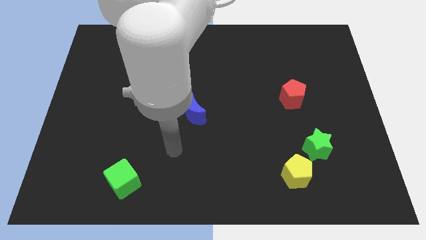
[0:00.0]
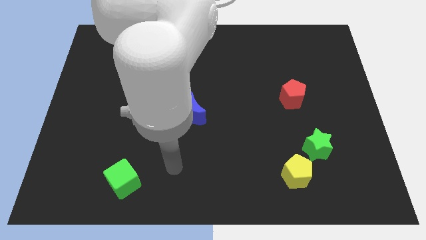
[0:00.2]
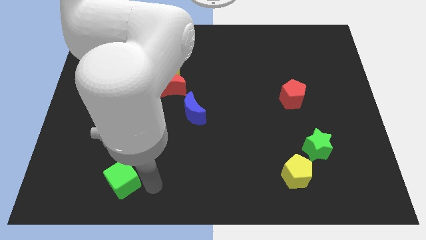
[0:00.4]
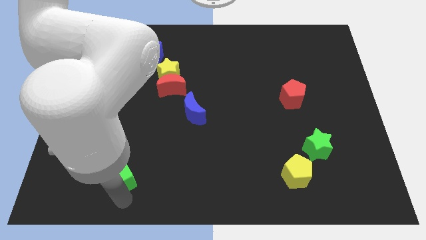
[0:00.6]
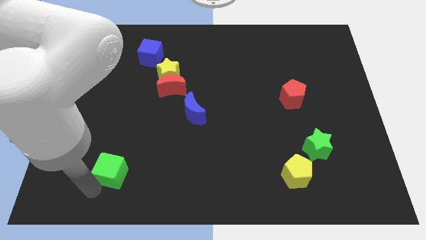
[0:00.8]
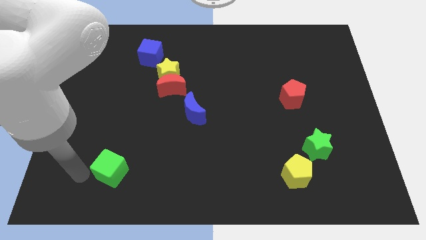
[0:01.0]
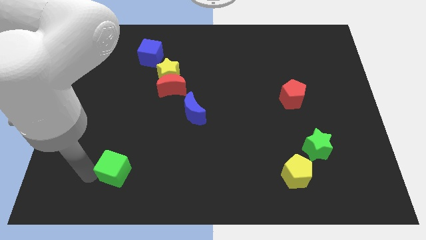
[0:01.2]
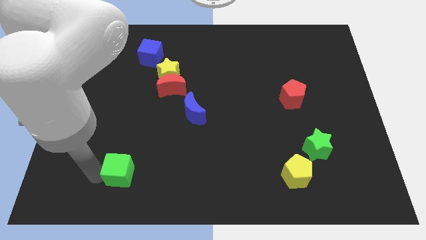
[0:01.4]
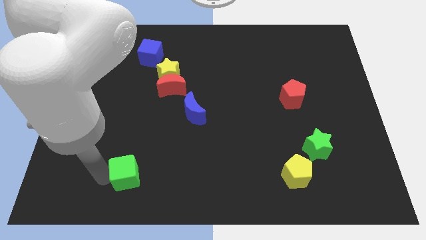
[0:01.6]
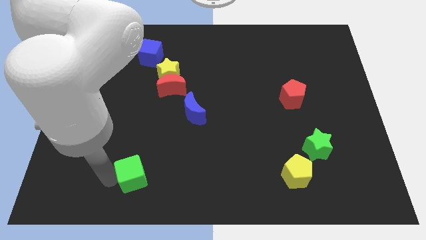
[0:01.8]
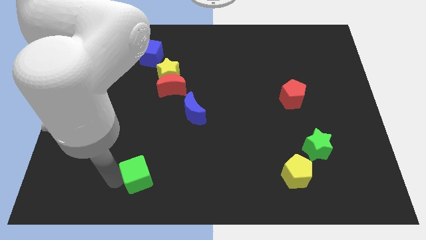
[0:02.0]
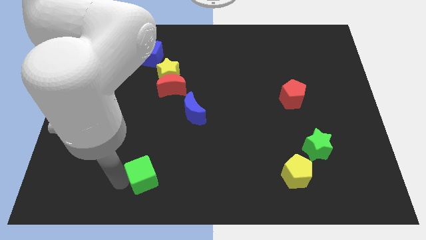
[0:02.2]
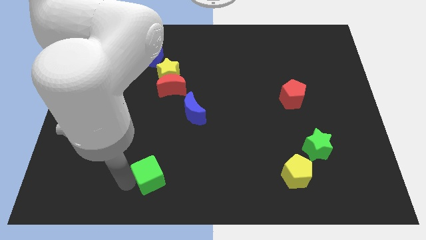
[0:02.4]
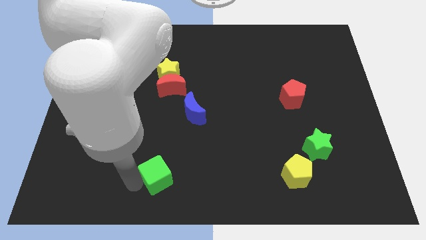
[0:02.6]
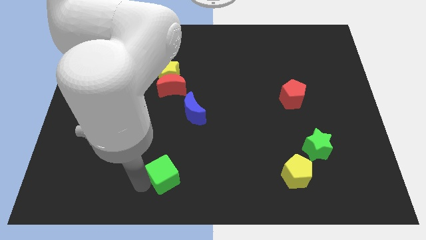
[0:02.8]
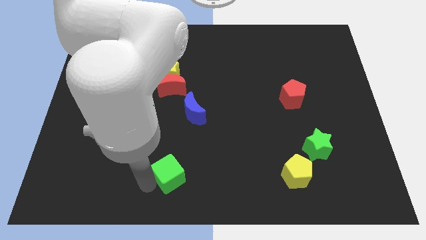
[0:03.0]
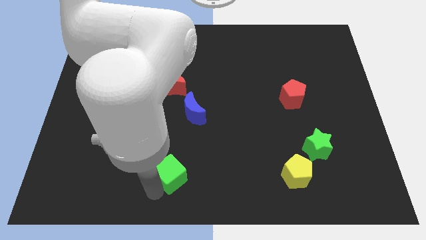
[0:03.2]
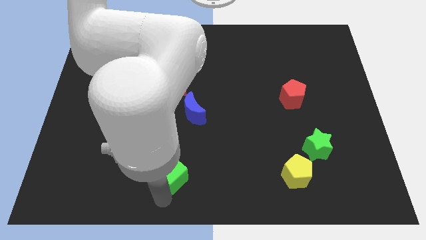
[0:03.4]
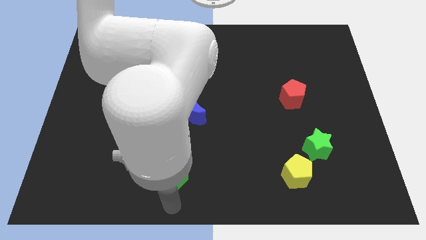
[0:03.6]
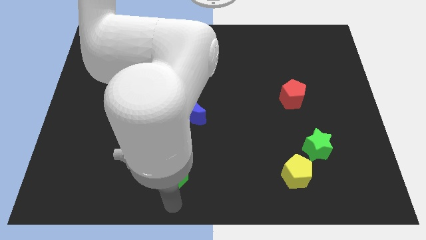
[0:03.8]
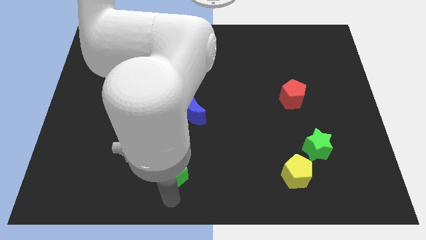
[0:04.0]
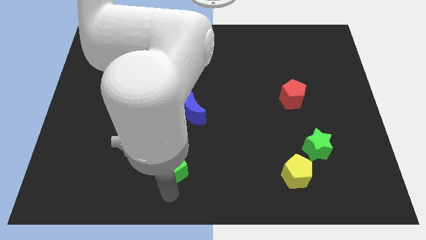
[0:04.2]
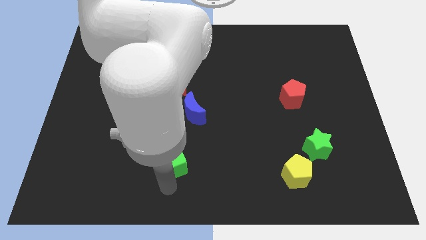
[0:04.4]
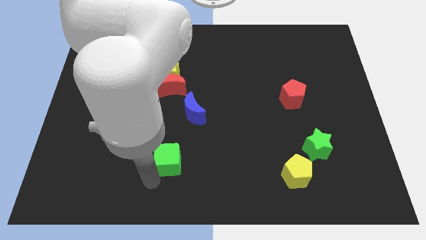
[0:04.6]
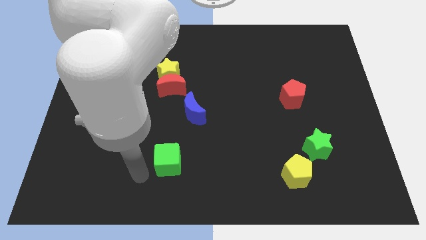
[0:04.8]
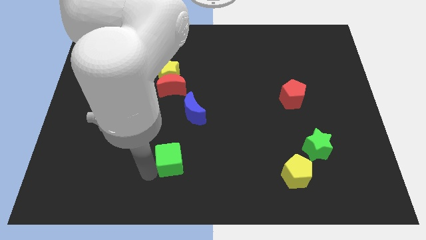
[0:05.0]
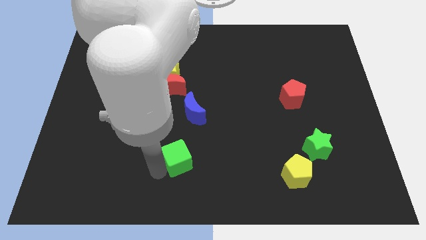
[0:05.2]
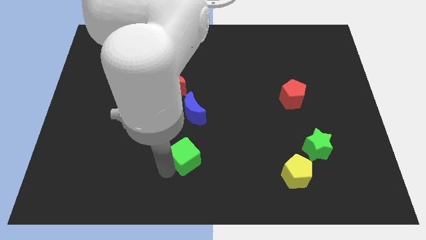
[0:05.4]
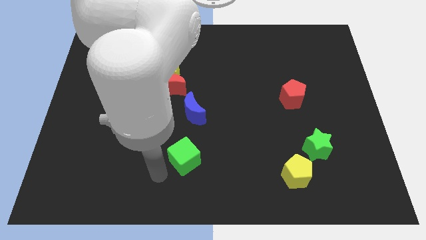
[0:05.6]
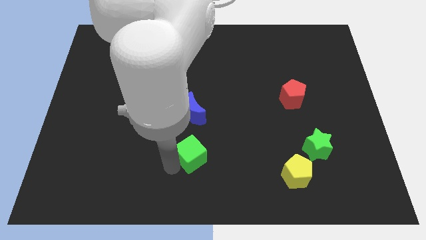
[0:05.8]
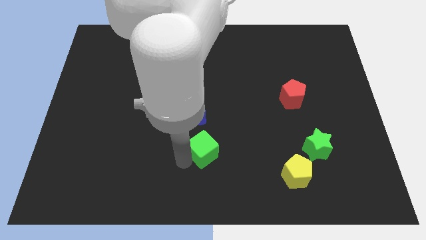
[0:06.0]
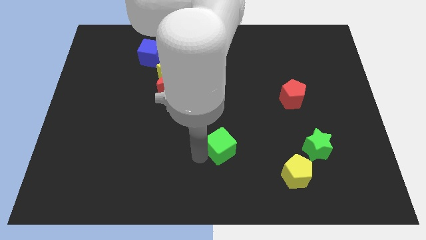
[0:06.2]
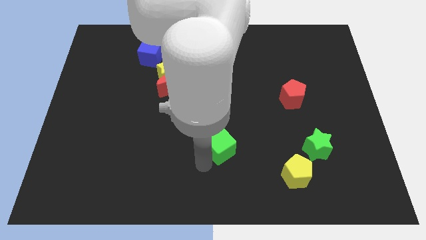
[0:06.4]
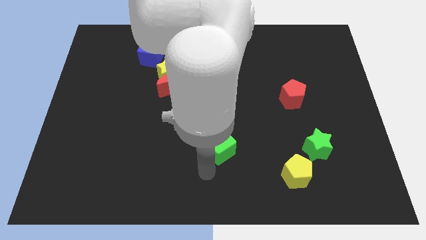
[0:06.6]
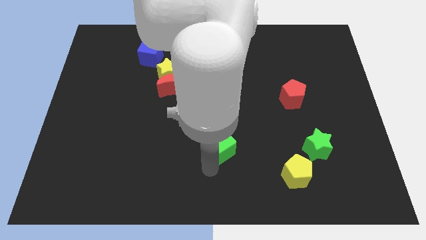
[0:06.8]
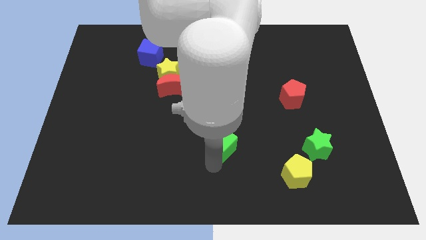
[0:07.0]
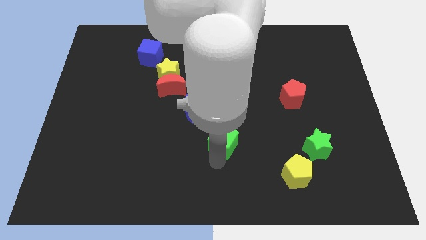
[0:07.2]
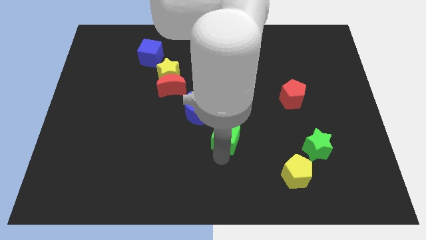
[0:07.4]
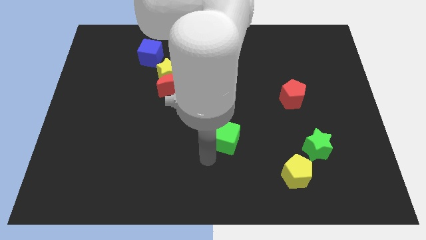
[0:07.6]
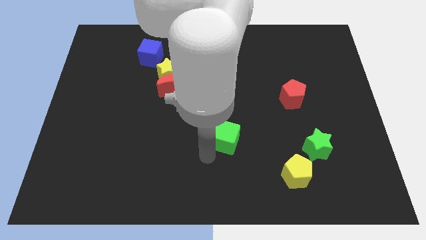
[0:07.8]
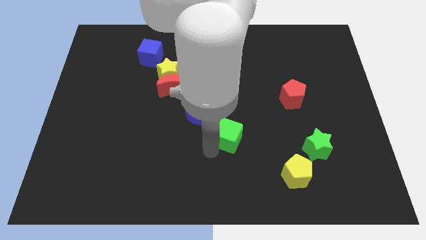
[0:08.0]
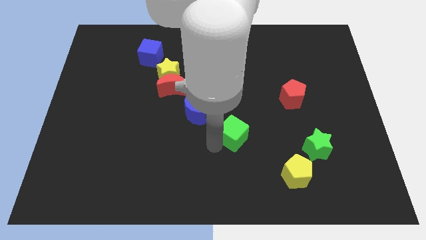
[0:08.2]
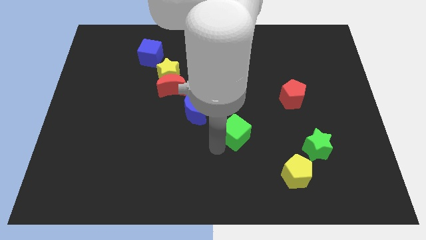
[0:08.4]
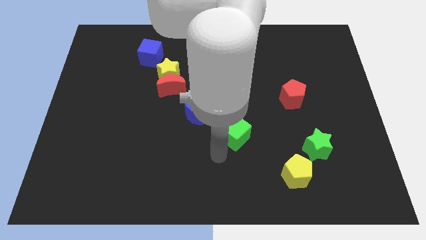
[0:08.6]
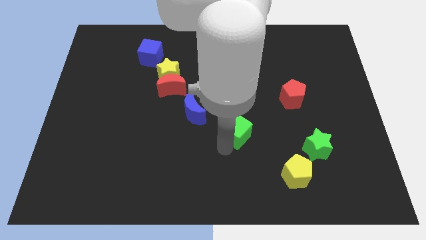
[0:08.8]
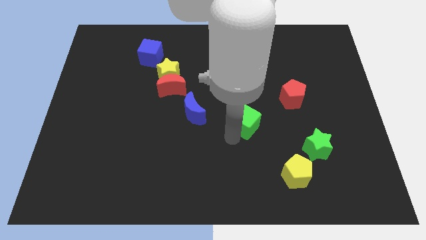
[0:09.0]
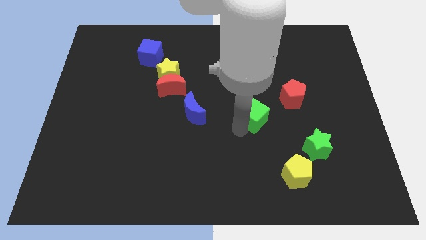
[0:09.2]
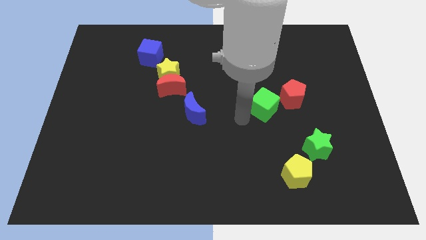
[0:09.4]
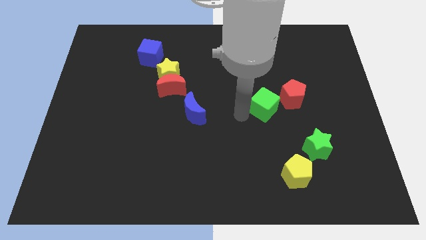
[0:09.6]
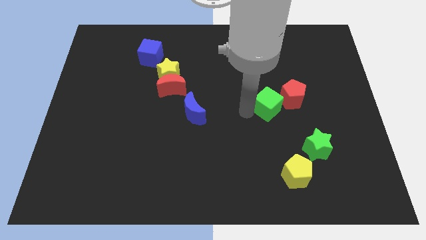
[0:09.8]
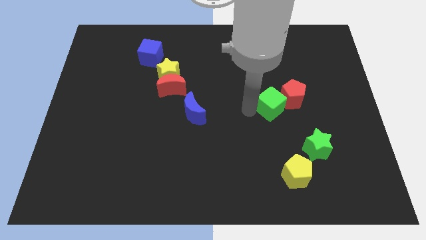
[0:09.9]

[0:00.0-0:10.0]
put the green cube next to the red pentagon

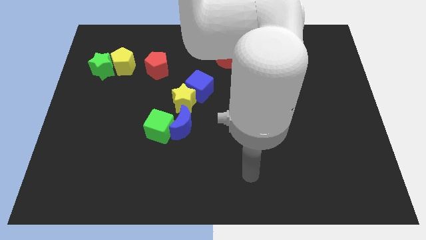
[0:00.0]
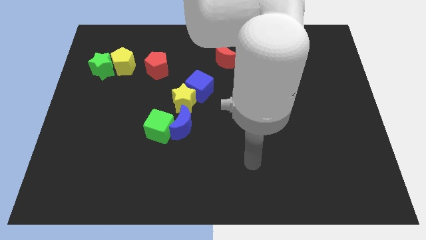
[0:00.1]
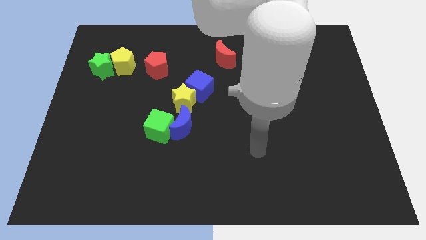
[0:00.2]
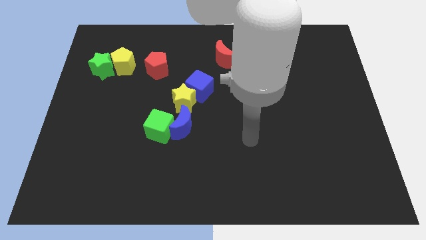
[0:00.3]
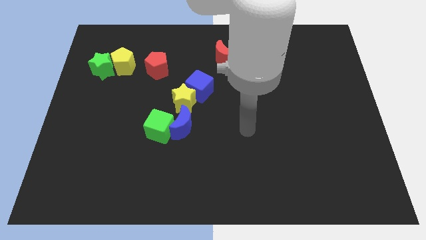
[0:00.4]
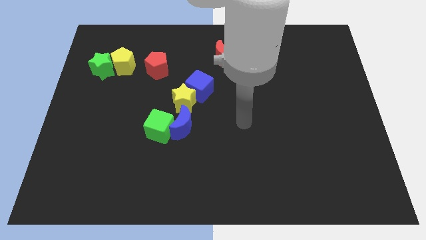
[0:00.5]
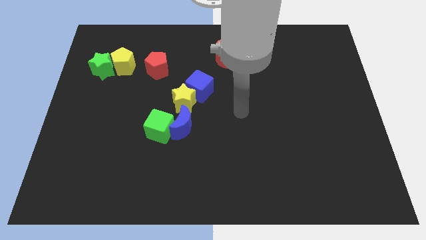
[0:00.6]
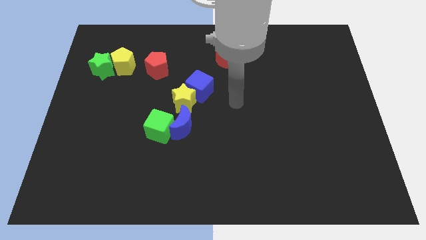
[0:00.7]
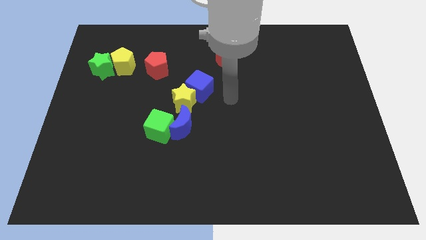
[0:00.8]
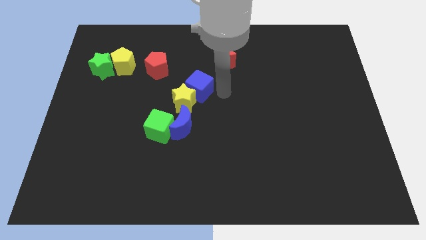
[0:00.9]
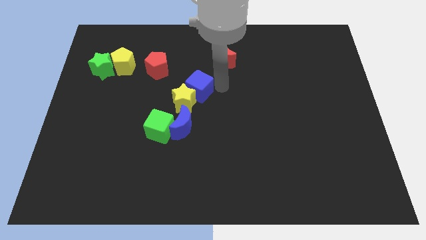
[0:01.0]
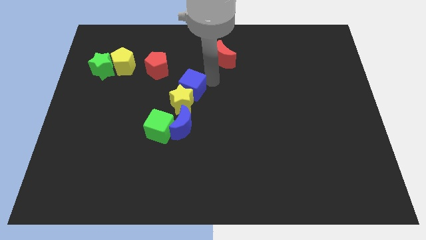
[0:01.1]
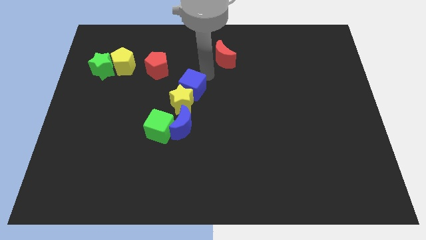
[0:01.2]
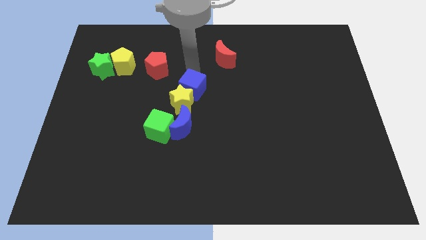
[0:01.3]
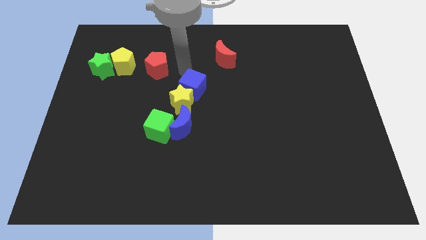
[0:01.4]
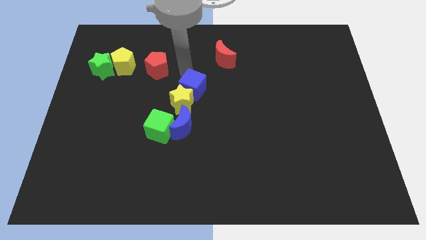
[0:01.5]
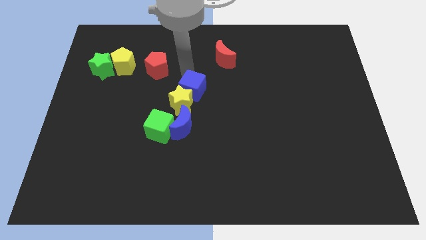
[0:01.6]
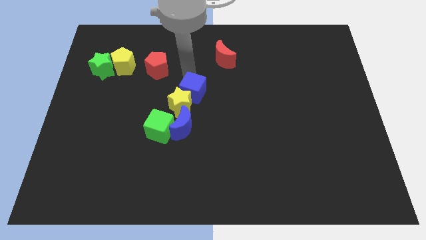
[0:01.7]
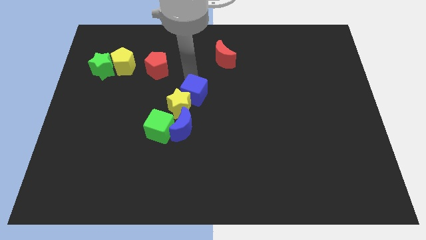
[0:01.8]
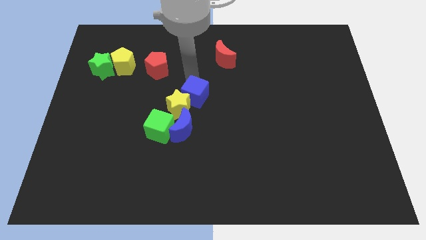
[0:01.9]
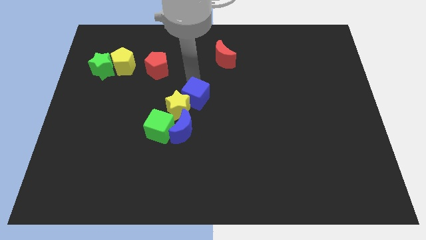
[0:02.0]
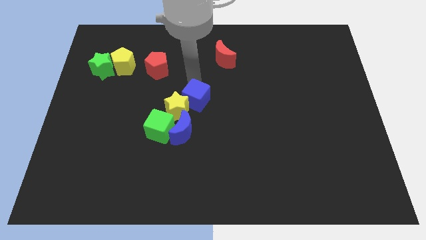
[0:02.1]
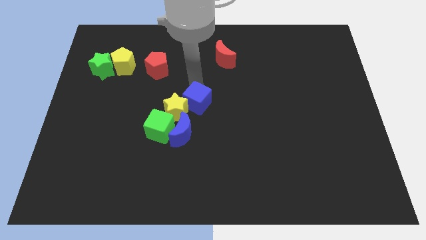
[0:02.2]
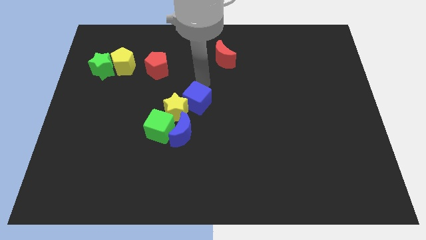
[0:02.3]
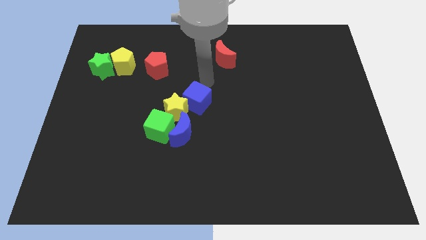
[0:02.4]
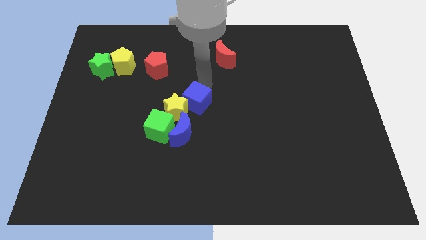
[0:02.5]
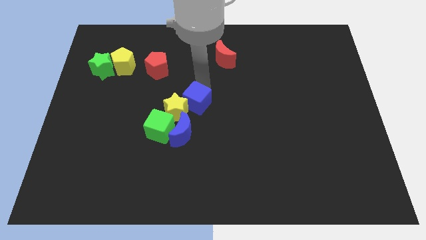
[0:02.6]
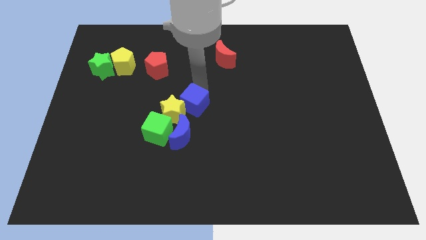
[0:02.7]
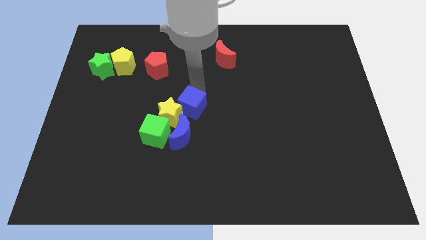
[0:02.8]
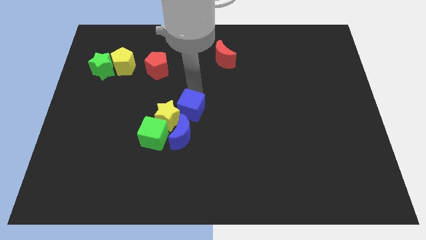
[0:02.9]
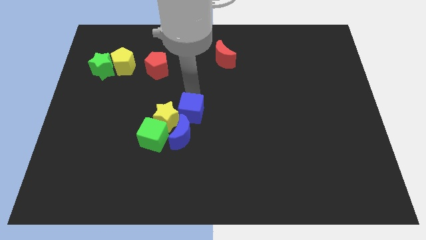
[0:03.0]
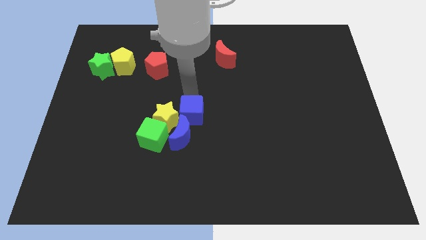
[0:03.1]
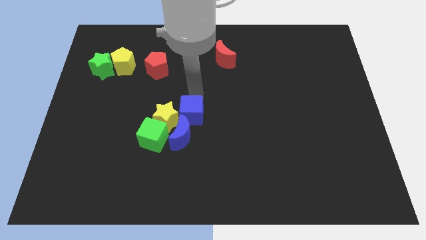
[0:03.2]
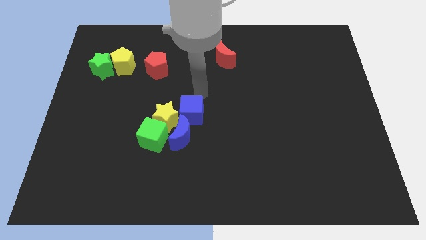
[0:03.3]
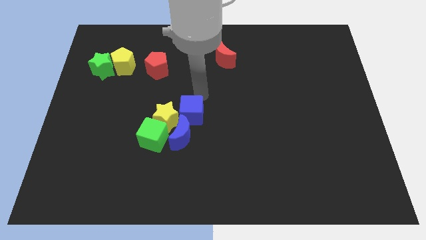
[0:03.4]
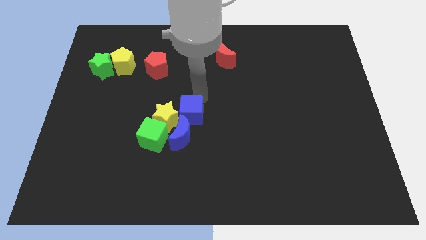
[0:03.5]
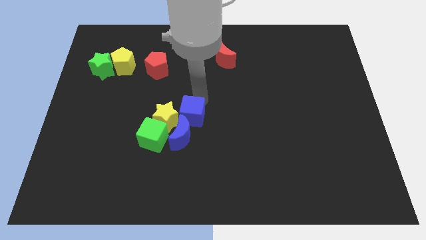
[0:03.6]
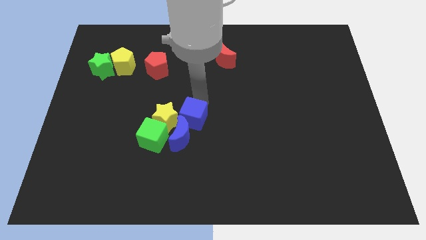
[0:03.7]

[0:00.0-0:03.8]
push the blue cube next to the blue moon
